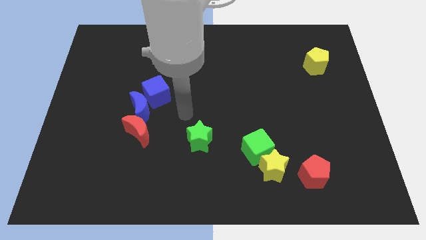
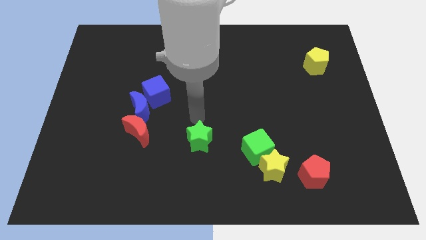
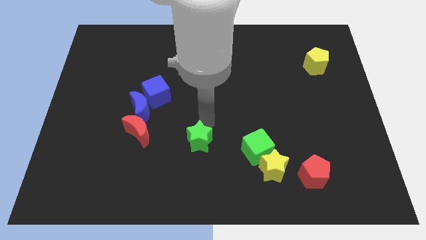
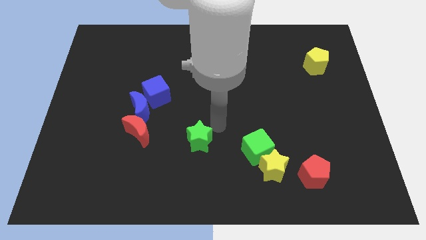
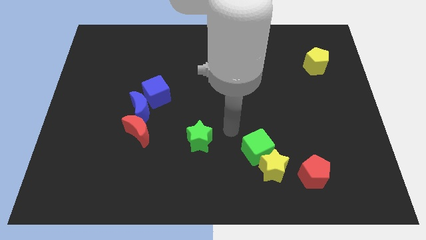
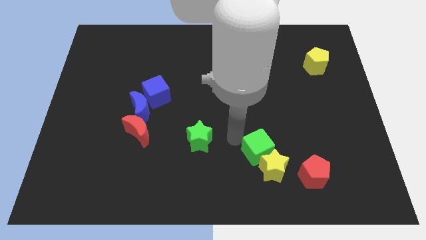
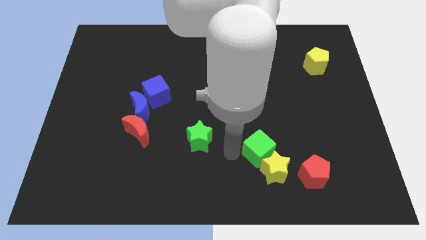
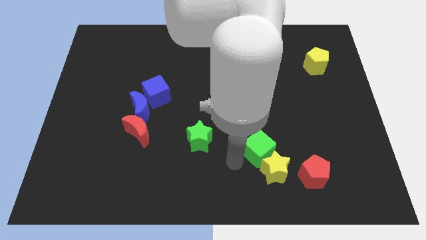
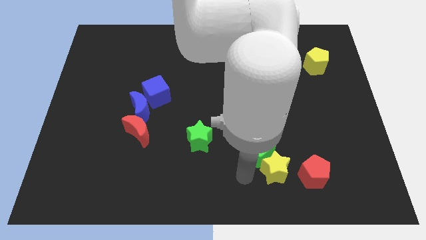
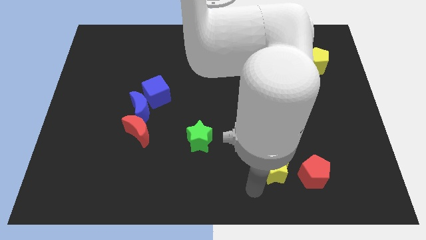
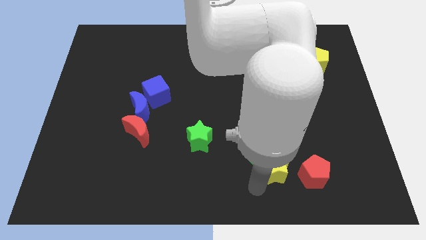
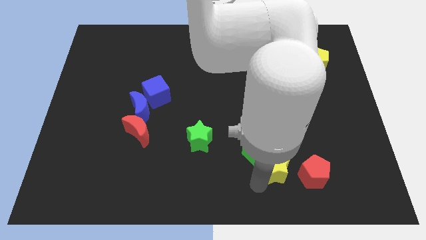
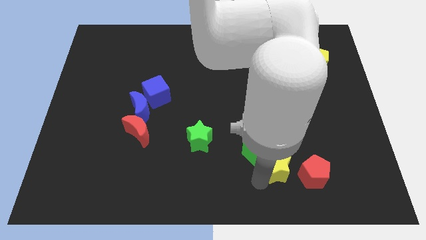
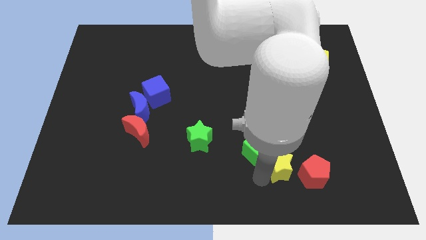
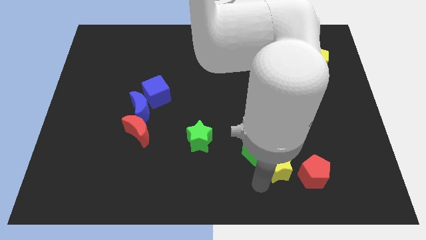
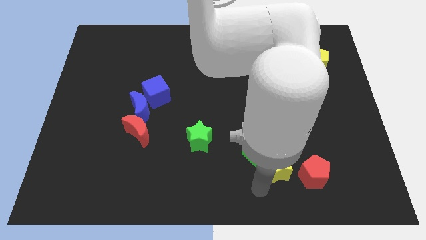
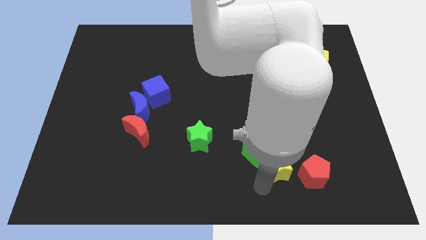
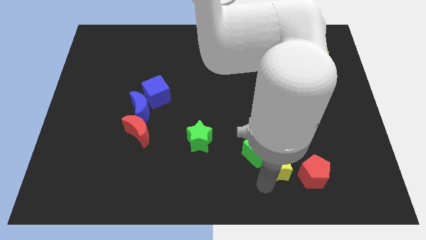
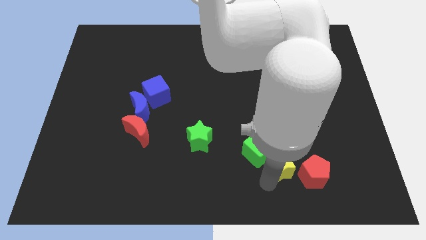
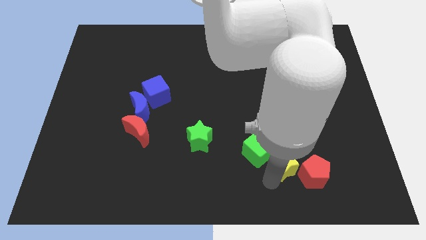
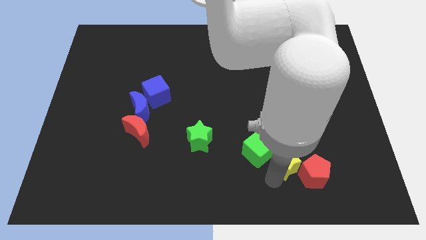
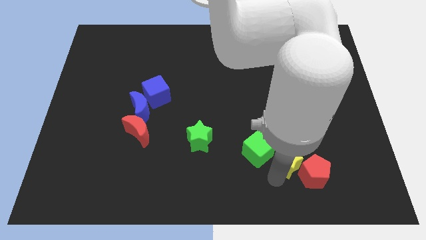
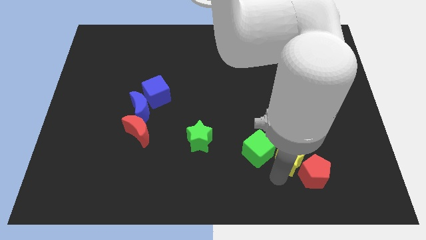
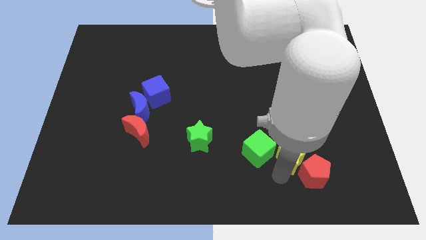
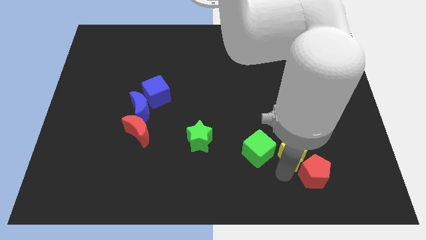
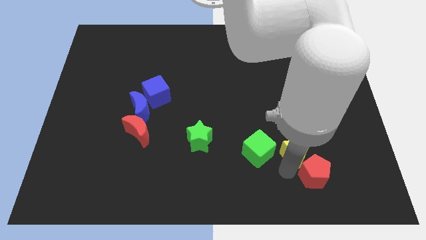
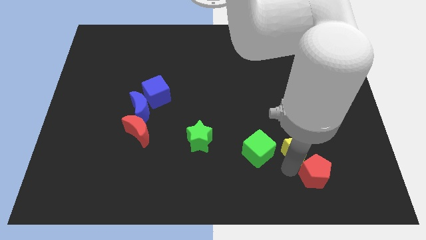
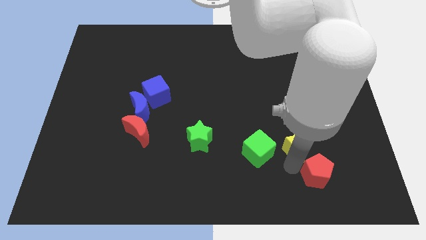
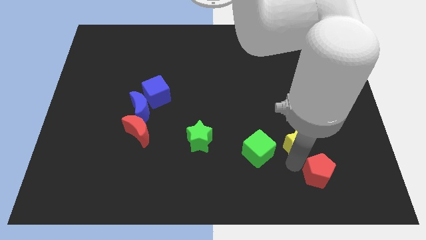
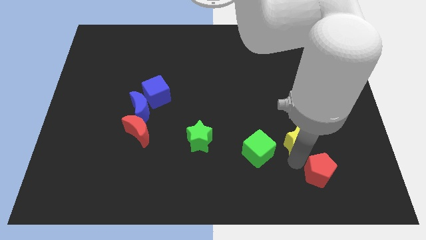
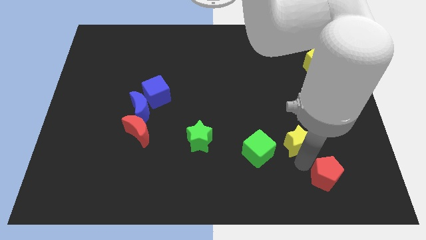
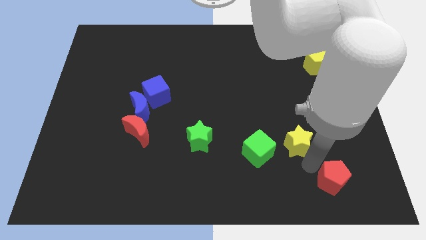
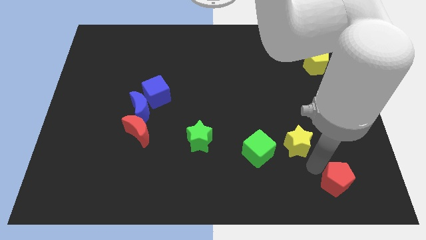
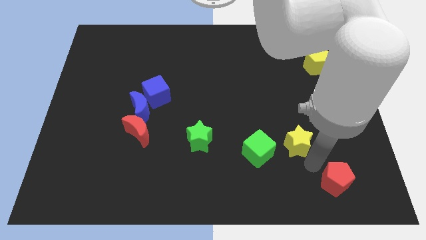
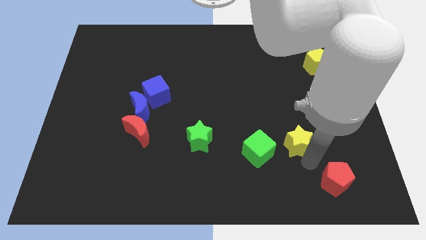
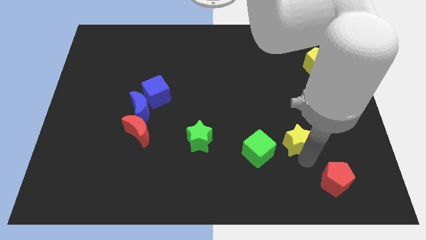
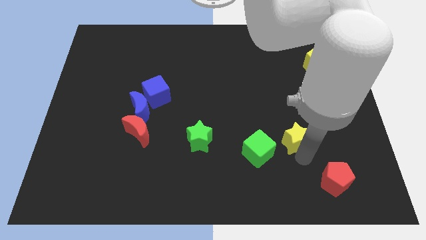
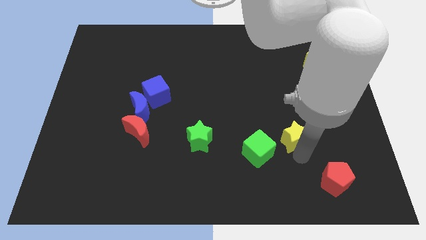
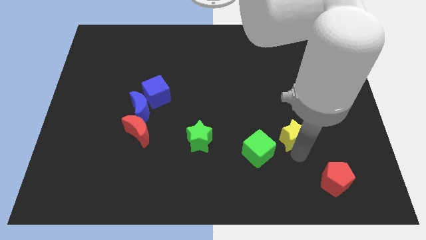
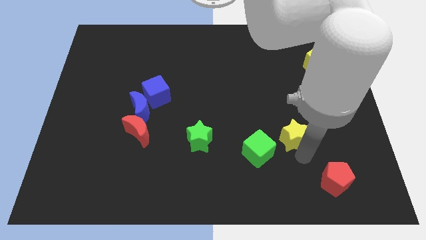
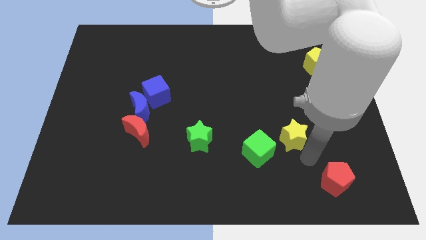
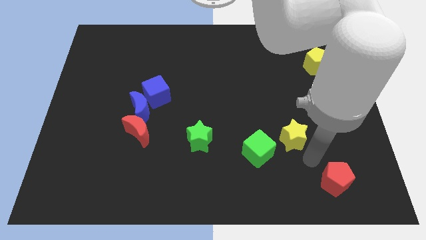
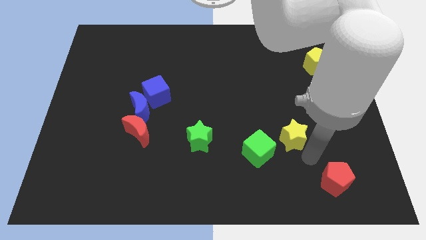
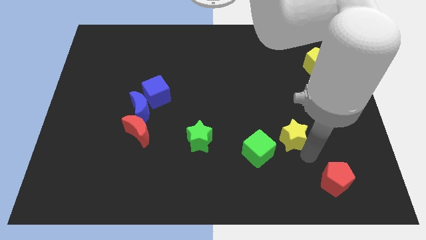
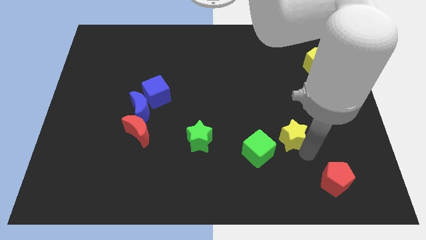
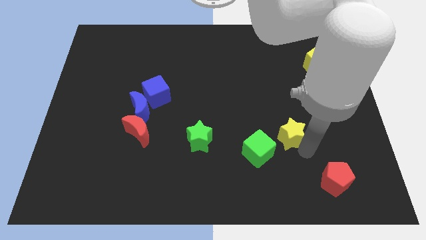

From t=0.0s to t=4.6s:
slightly slide the yellow star up

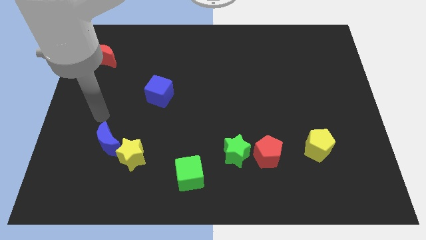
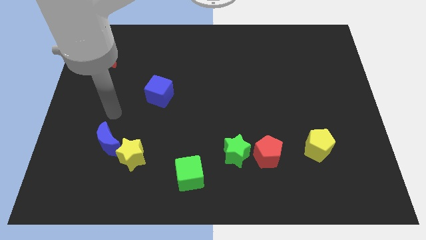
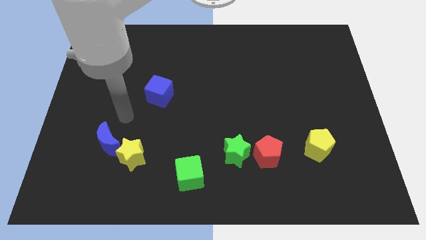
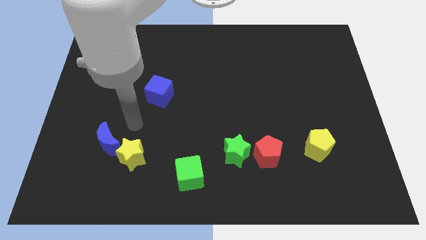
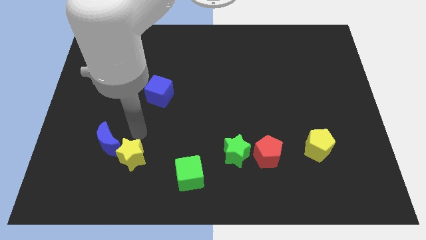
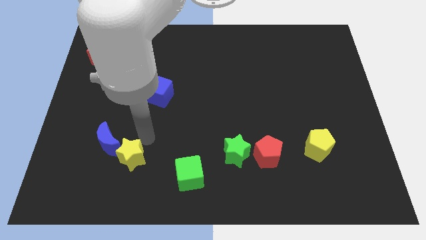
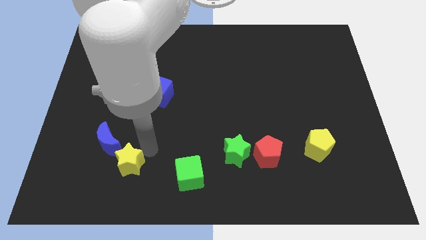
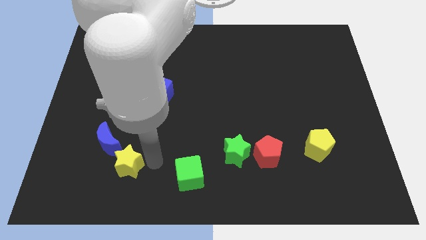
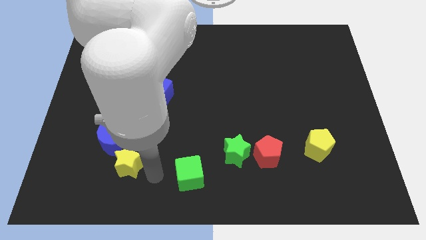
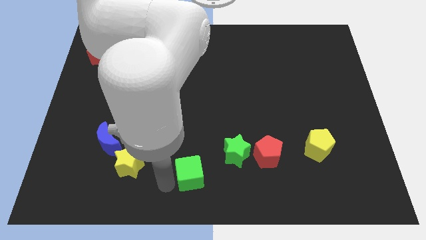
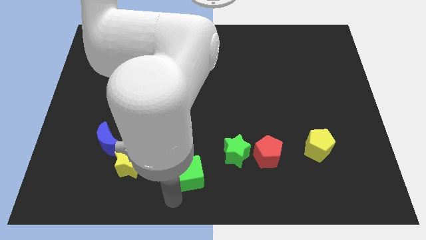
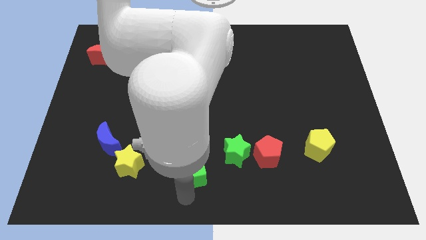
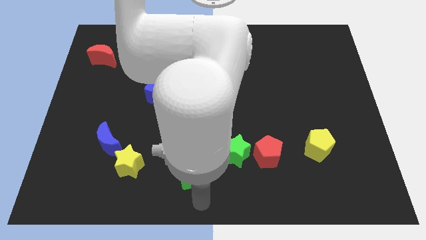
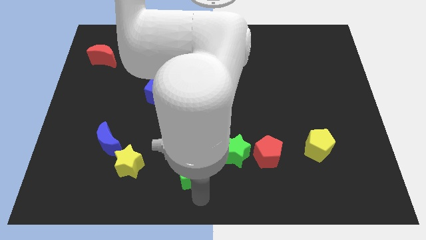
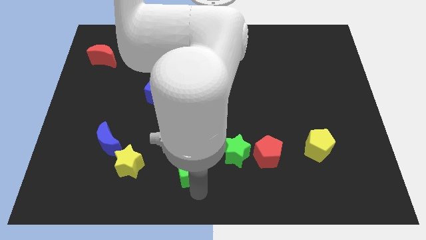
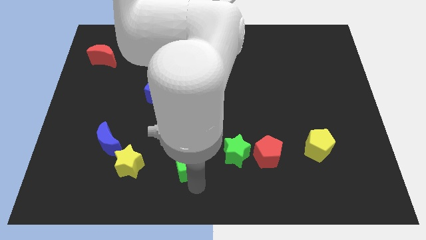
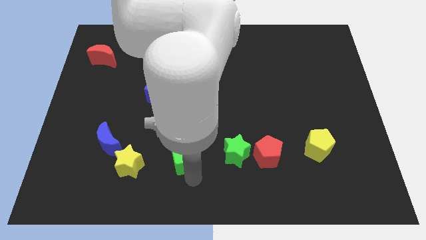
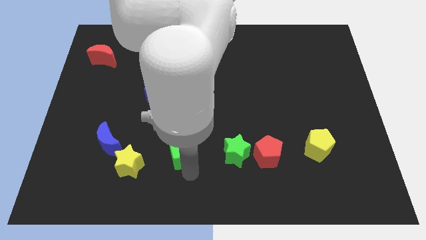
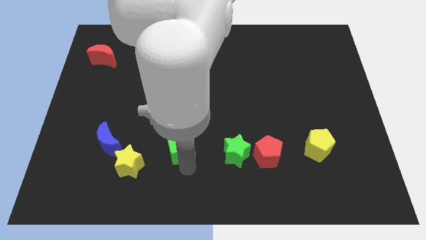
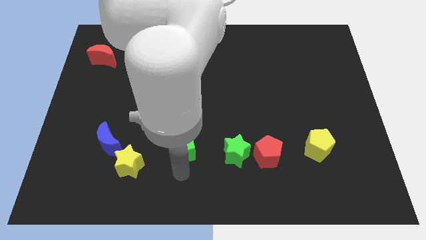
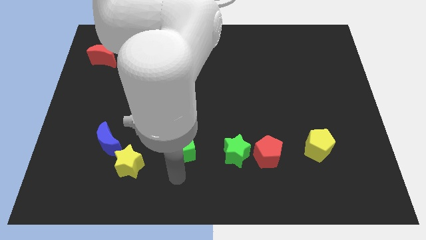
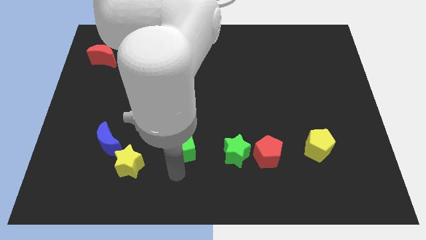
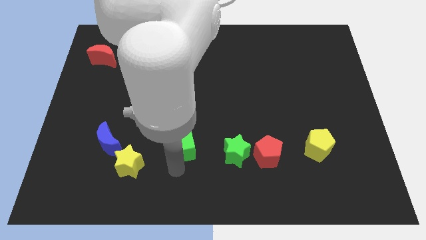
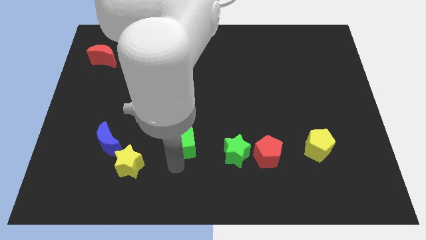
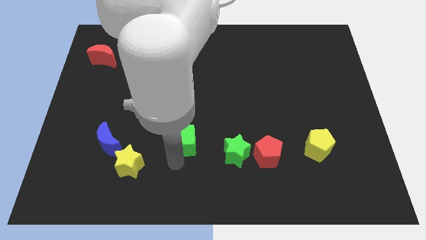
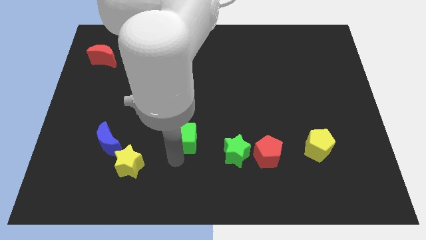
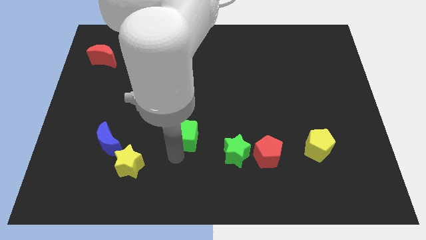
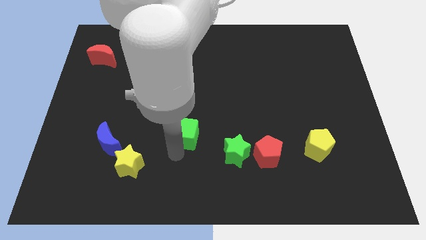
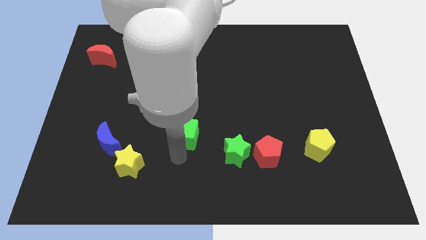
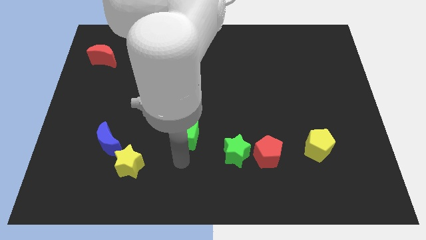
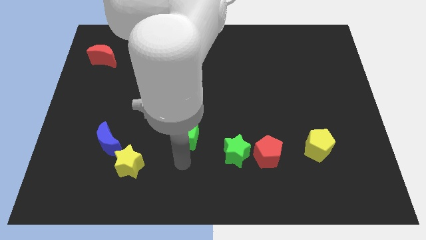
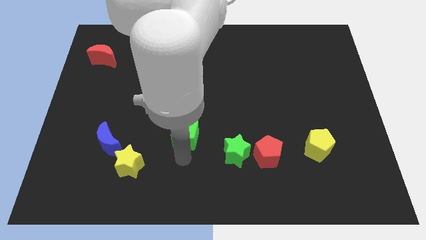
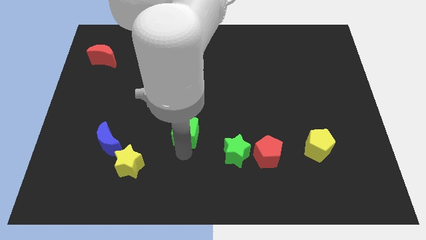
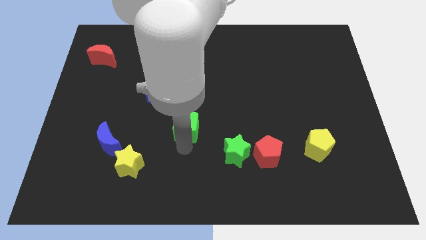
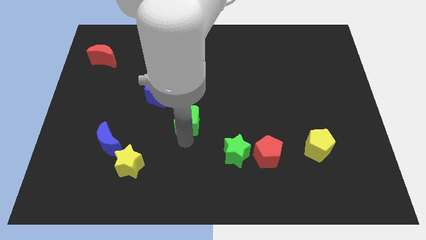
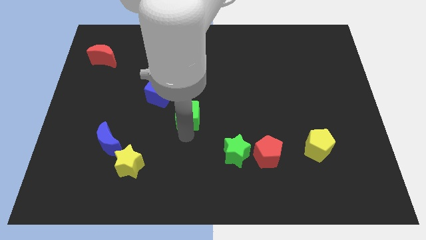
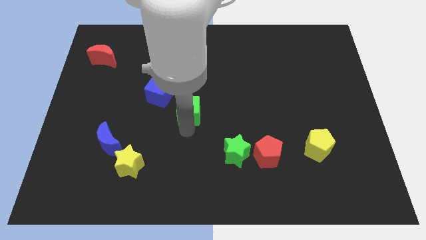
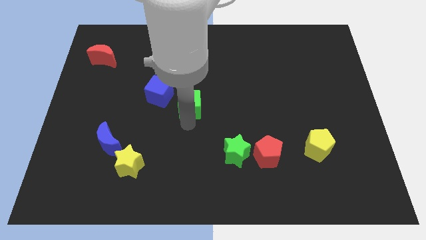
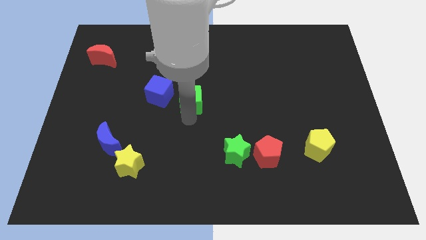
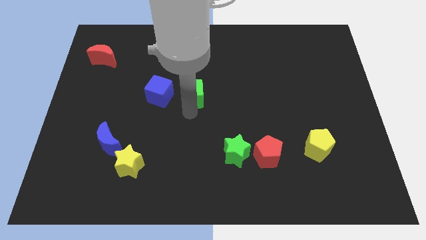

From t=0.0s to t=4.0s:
push the green cube upwards
